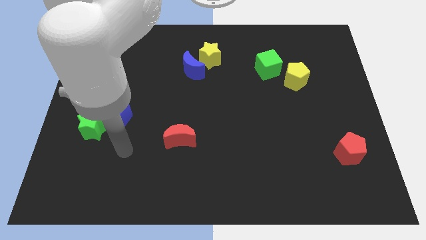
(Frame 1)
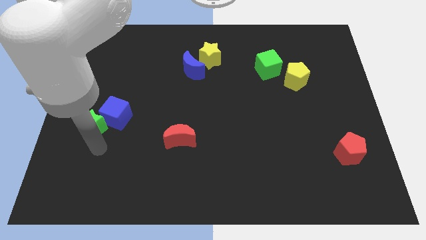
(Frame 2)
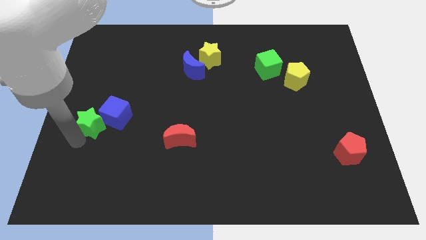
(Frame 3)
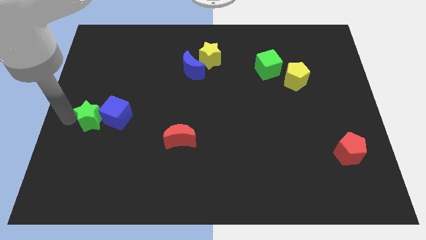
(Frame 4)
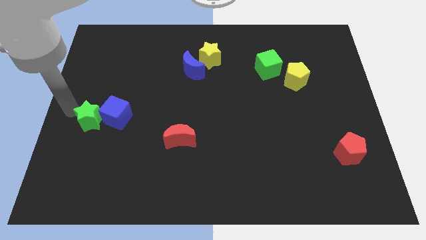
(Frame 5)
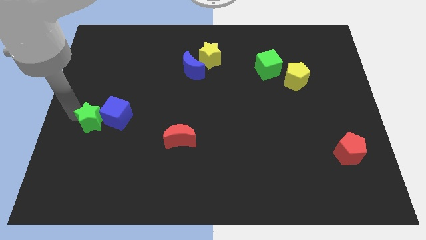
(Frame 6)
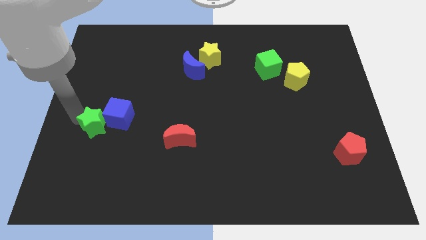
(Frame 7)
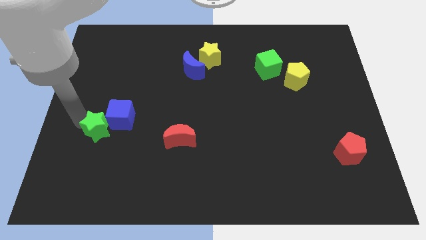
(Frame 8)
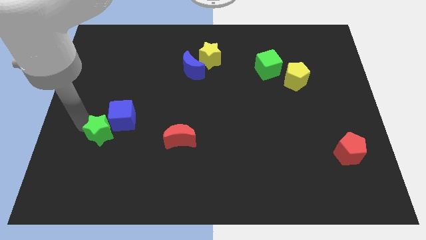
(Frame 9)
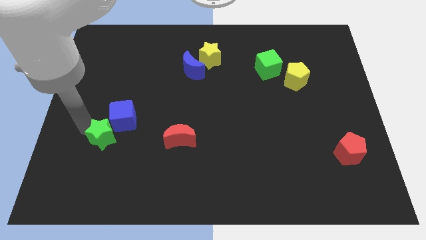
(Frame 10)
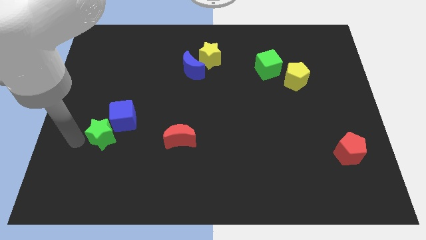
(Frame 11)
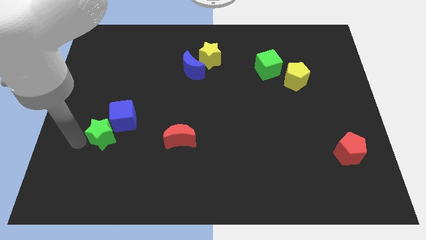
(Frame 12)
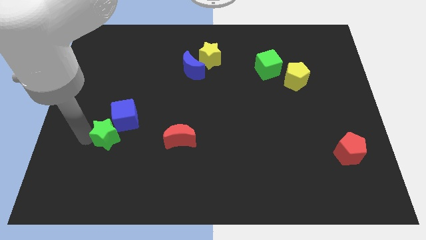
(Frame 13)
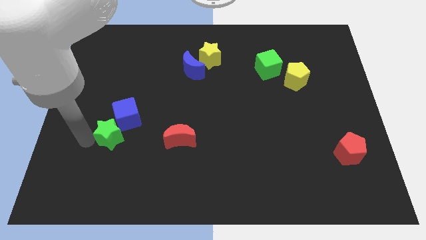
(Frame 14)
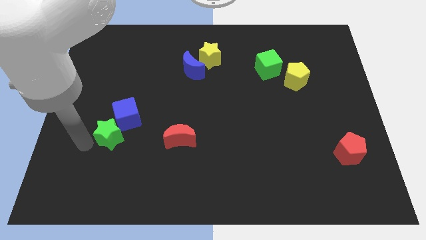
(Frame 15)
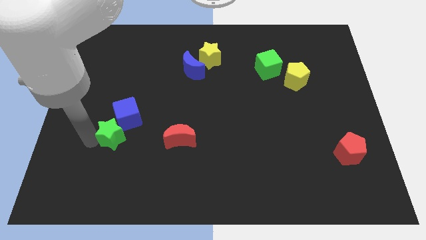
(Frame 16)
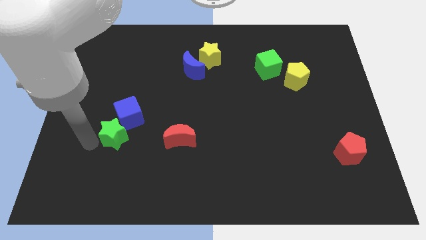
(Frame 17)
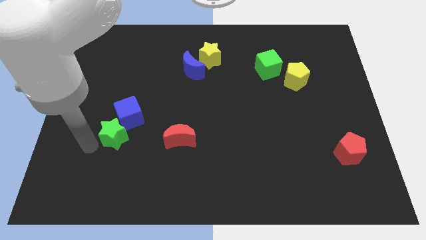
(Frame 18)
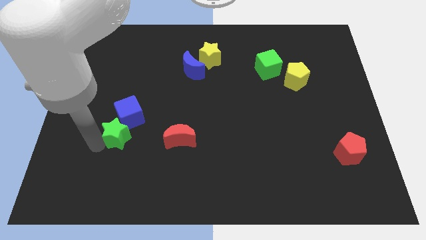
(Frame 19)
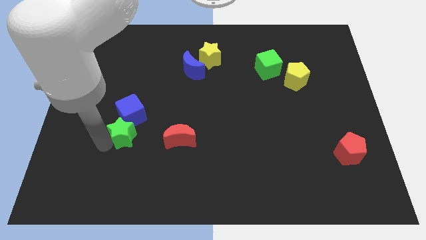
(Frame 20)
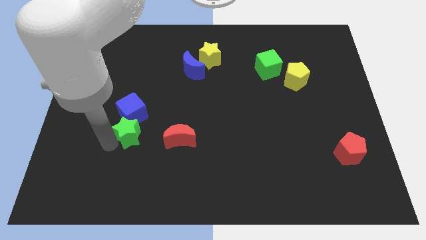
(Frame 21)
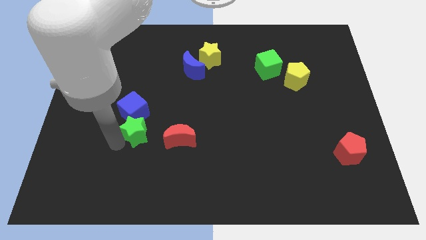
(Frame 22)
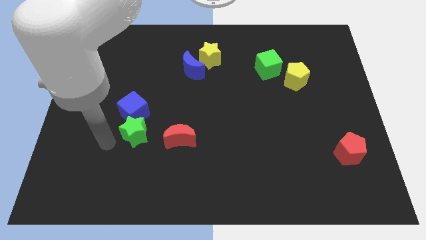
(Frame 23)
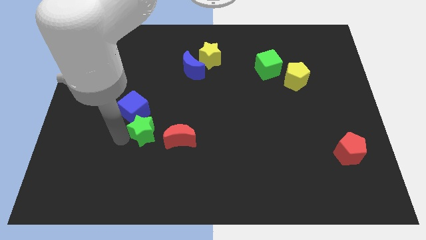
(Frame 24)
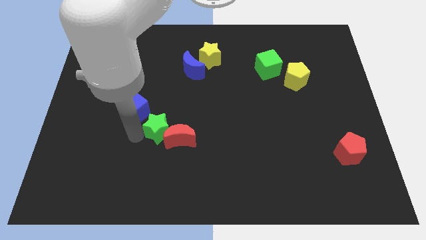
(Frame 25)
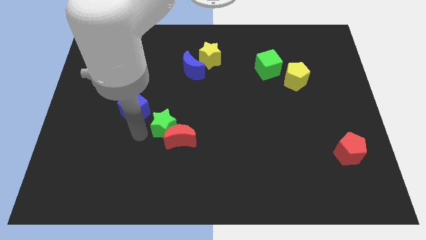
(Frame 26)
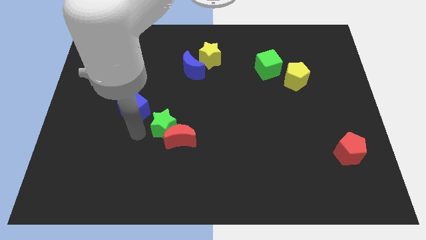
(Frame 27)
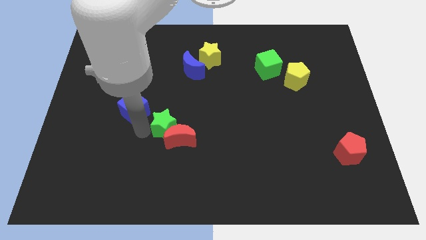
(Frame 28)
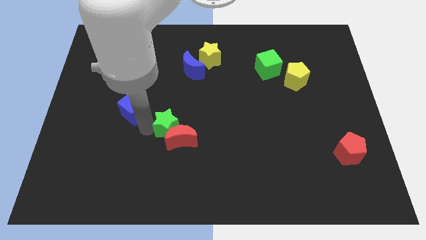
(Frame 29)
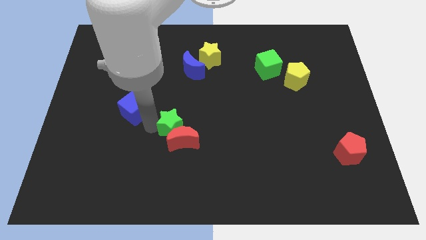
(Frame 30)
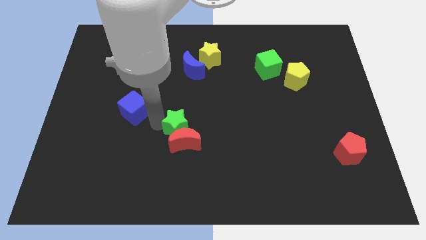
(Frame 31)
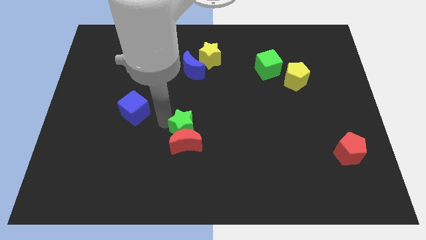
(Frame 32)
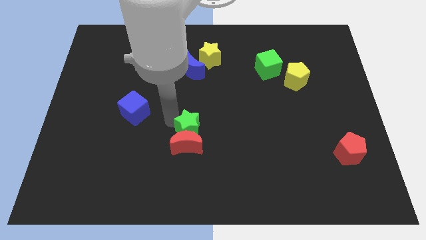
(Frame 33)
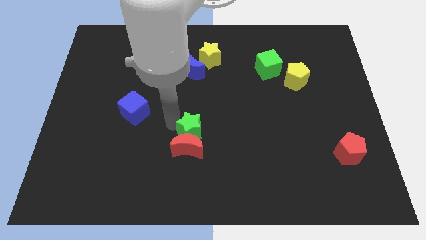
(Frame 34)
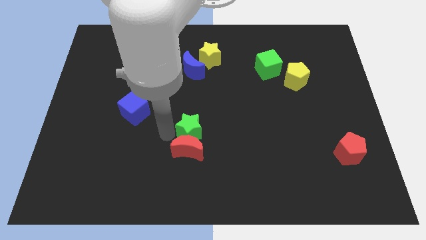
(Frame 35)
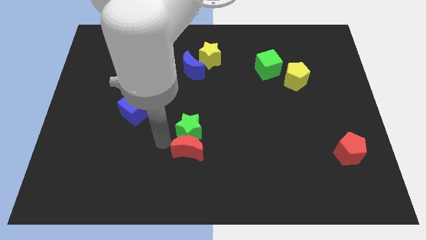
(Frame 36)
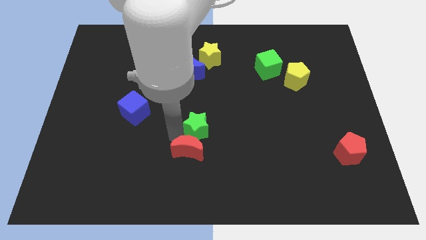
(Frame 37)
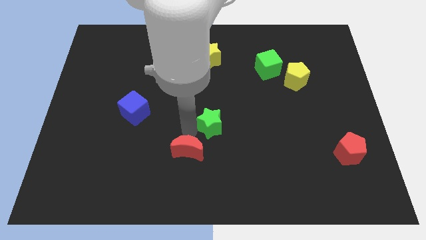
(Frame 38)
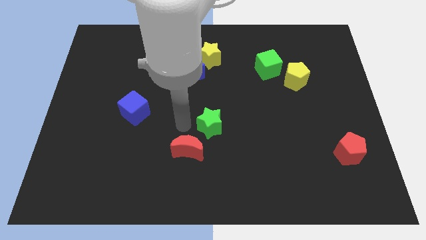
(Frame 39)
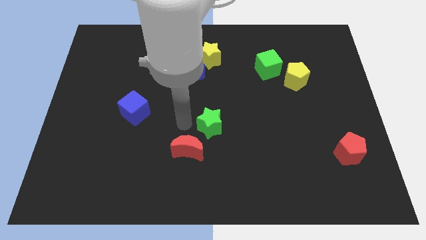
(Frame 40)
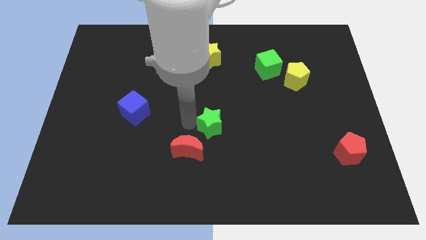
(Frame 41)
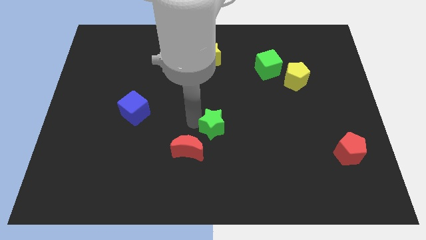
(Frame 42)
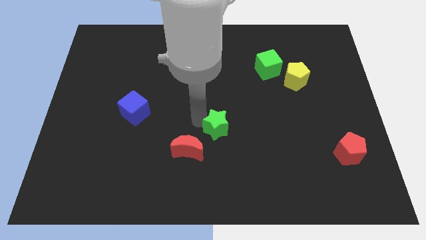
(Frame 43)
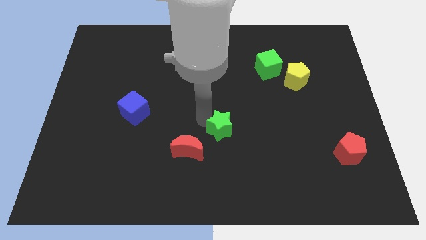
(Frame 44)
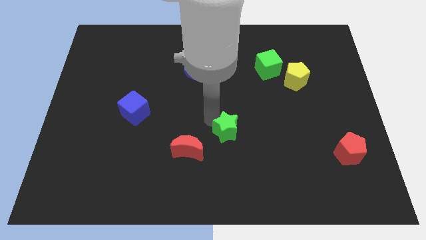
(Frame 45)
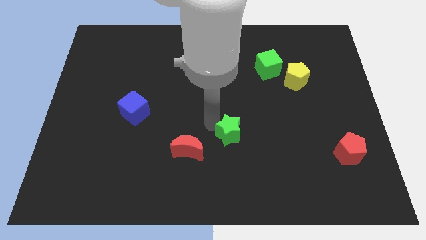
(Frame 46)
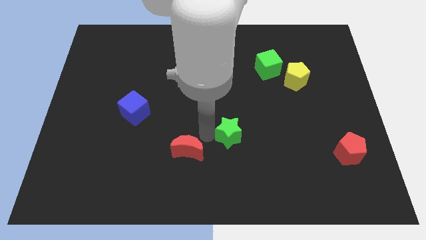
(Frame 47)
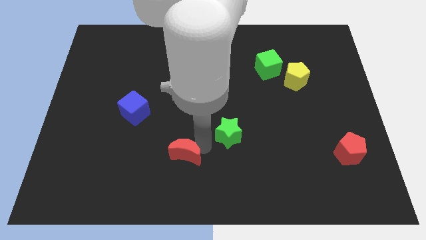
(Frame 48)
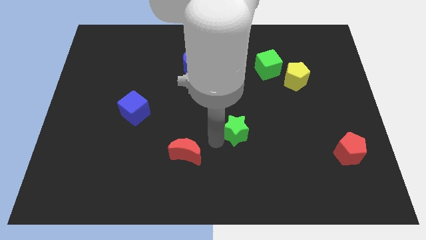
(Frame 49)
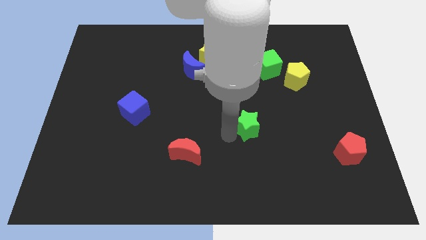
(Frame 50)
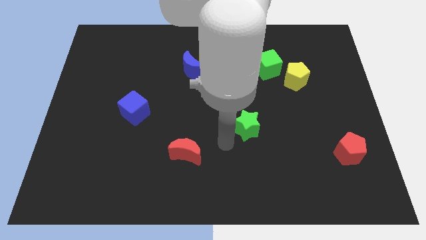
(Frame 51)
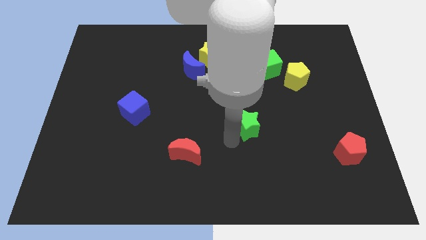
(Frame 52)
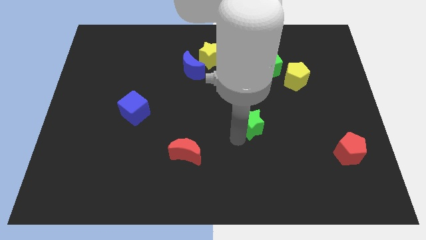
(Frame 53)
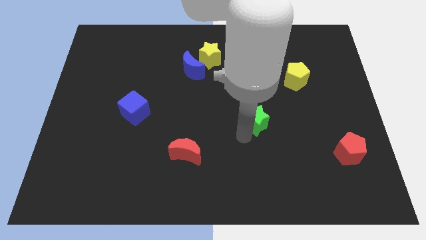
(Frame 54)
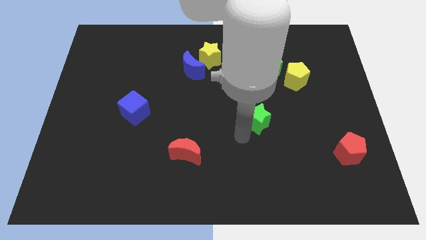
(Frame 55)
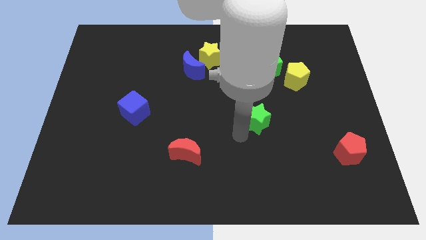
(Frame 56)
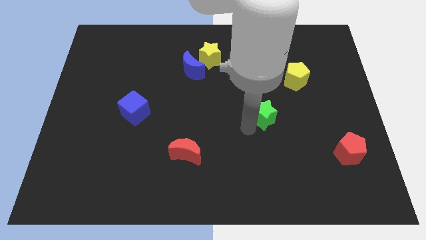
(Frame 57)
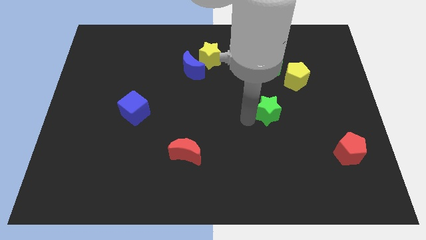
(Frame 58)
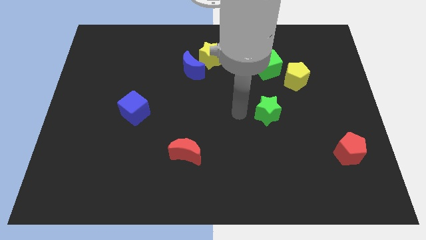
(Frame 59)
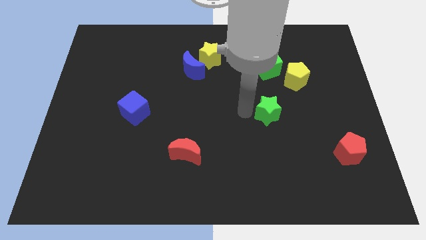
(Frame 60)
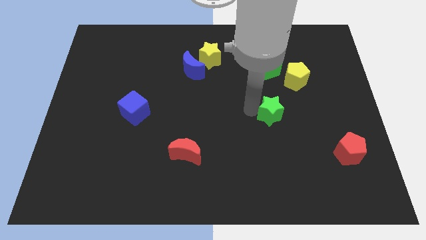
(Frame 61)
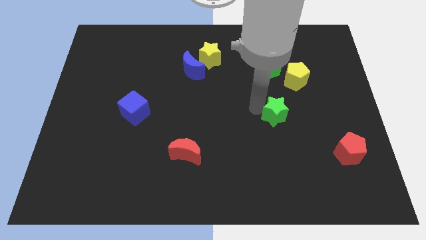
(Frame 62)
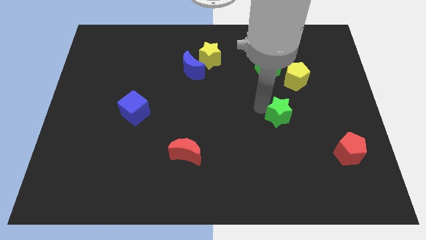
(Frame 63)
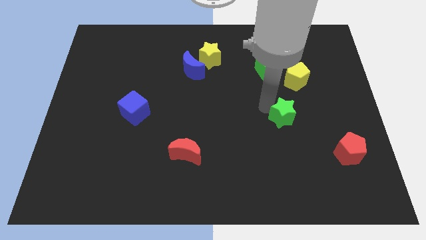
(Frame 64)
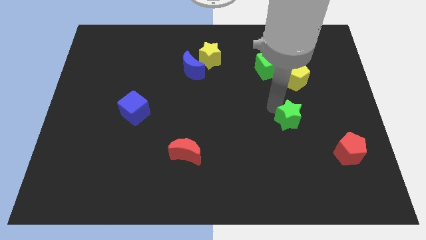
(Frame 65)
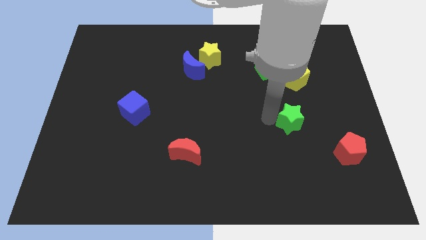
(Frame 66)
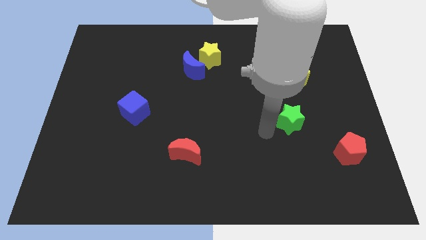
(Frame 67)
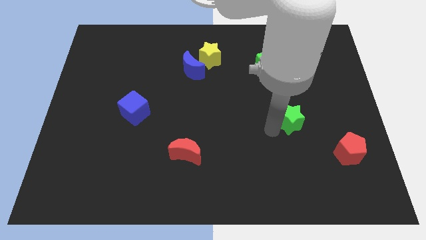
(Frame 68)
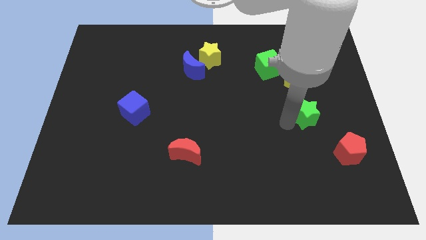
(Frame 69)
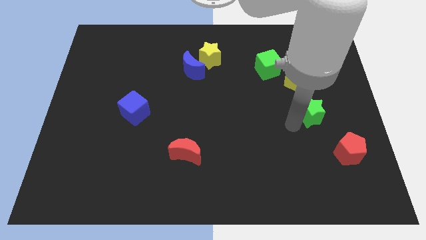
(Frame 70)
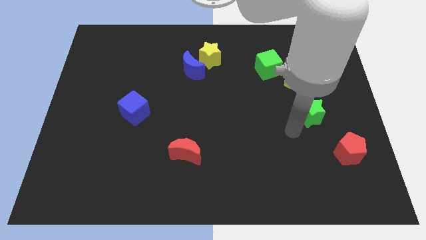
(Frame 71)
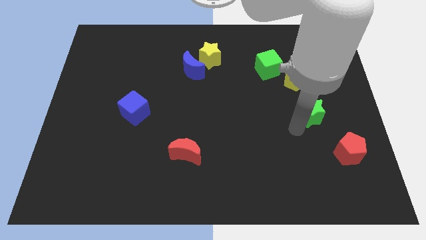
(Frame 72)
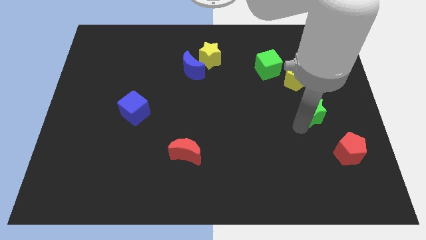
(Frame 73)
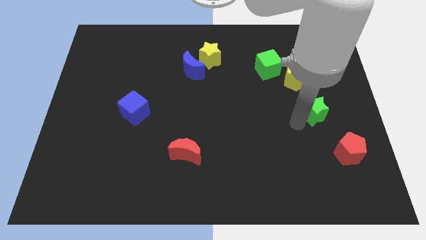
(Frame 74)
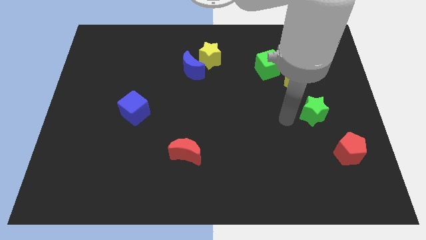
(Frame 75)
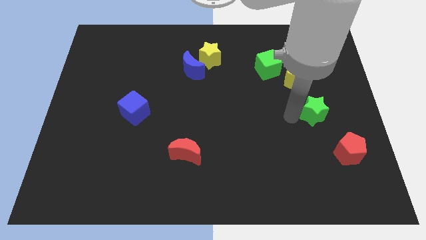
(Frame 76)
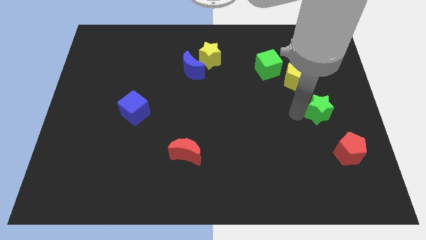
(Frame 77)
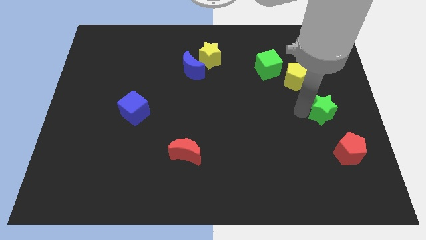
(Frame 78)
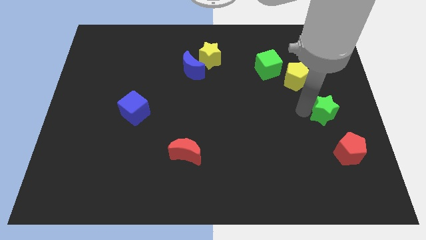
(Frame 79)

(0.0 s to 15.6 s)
move the green star to the right side
